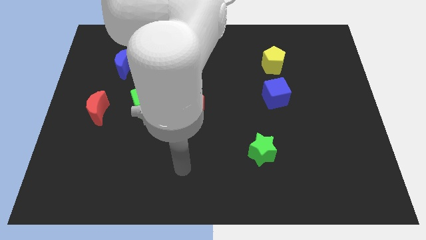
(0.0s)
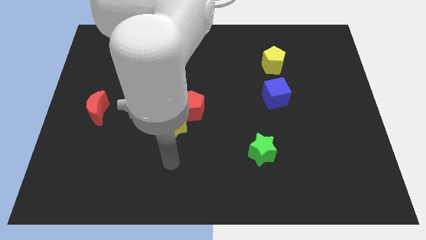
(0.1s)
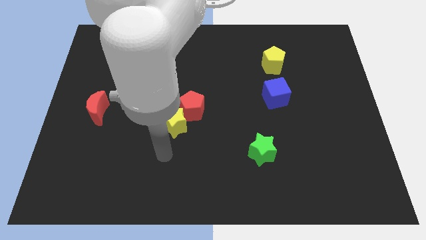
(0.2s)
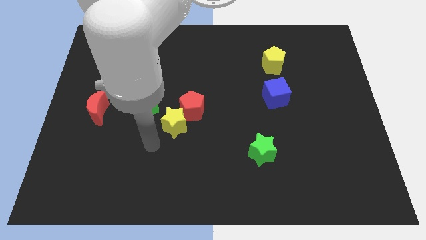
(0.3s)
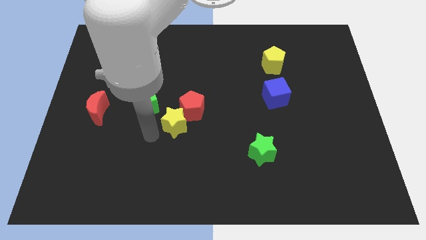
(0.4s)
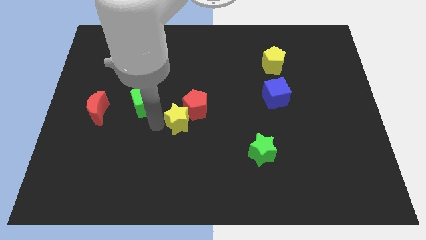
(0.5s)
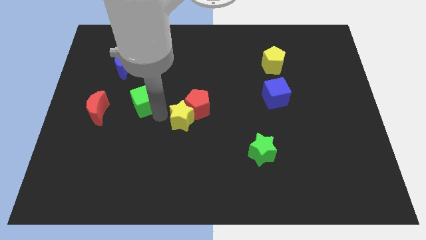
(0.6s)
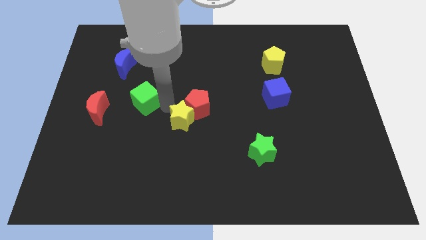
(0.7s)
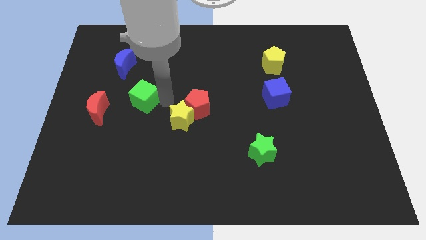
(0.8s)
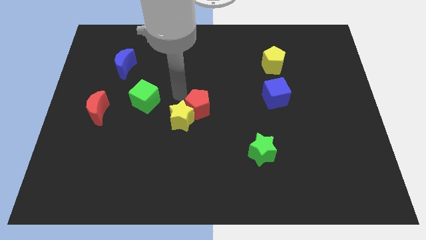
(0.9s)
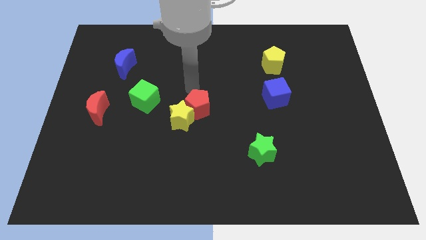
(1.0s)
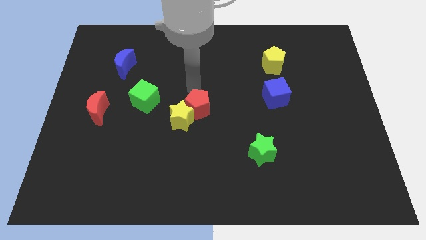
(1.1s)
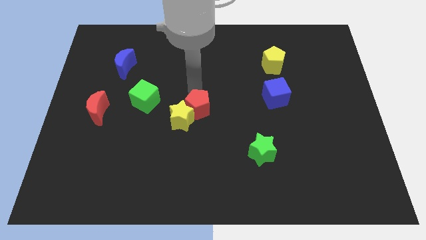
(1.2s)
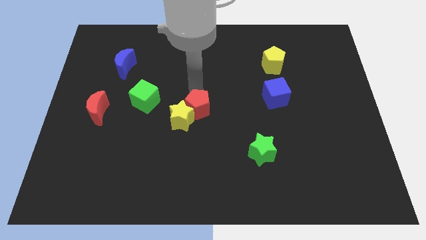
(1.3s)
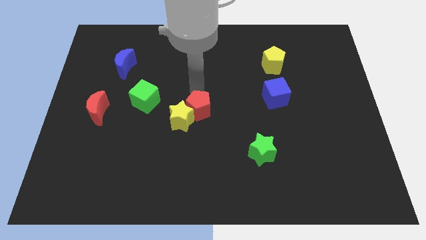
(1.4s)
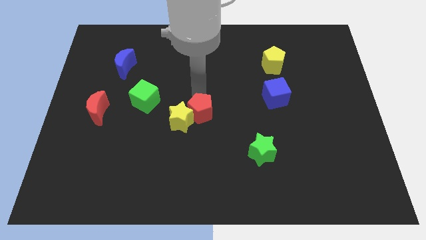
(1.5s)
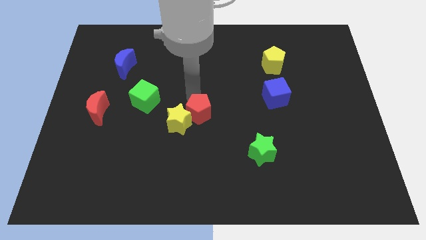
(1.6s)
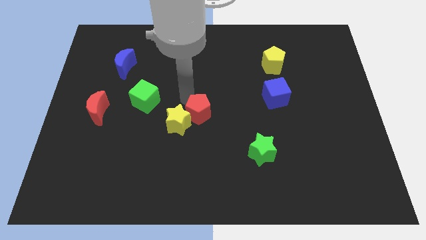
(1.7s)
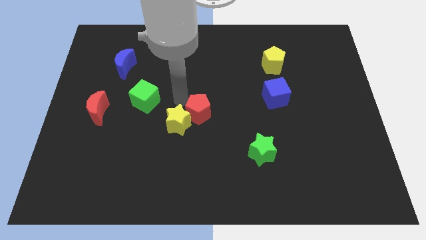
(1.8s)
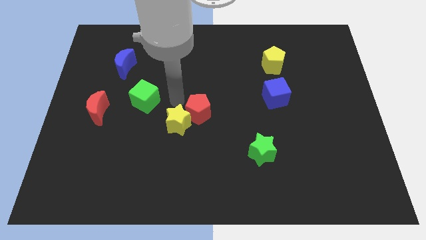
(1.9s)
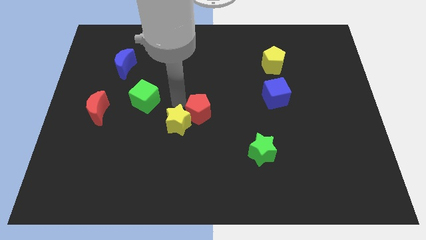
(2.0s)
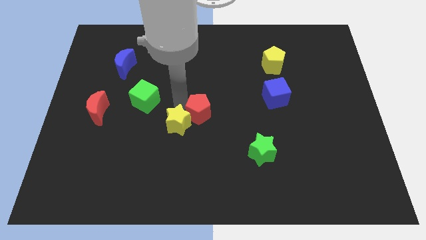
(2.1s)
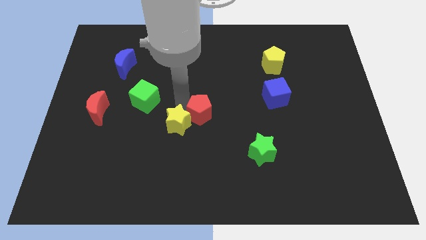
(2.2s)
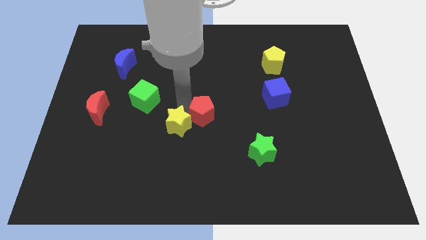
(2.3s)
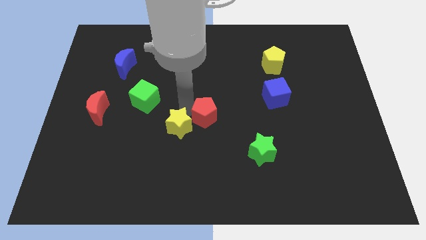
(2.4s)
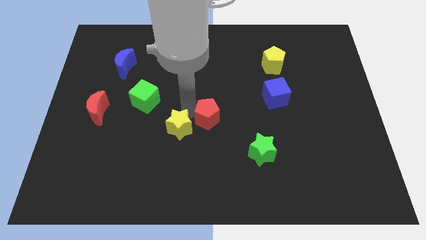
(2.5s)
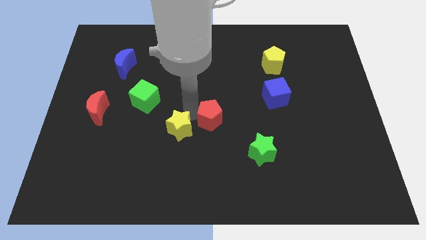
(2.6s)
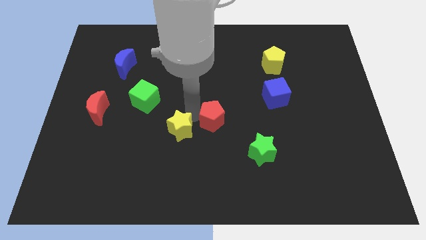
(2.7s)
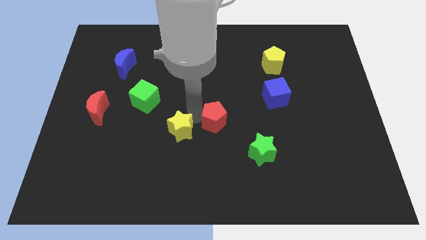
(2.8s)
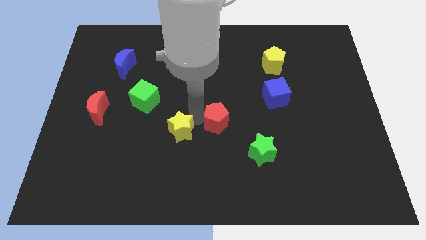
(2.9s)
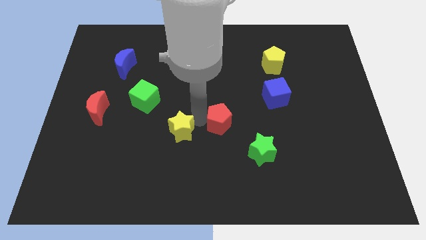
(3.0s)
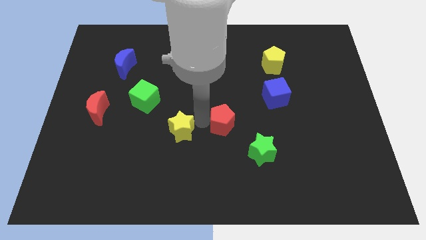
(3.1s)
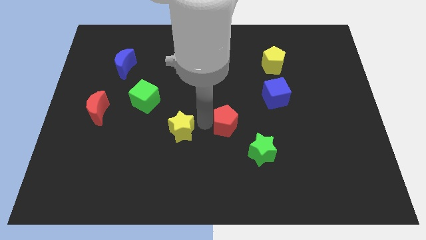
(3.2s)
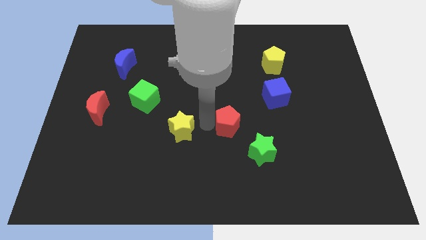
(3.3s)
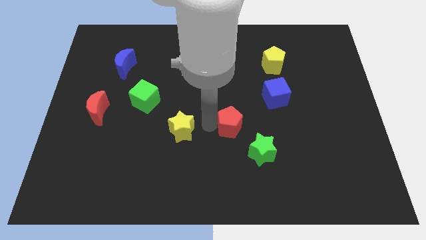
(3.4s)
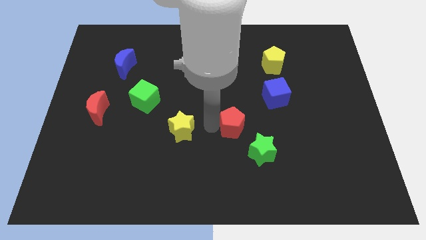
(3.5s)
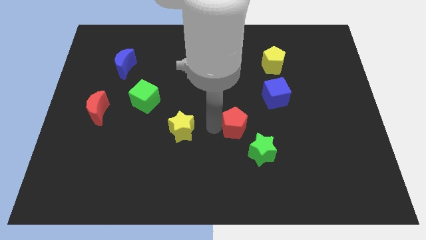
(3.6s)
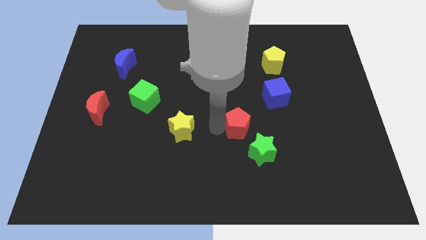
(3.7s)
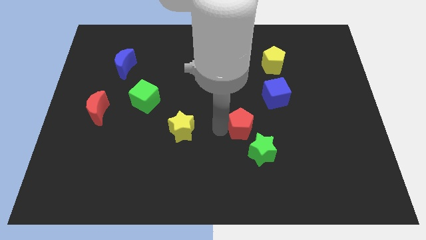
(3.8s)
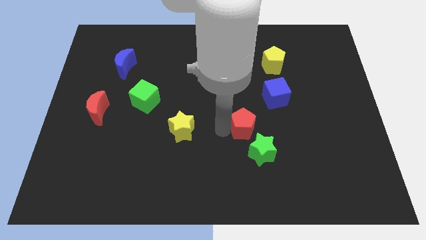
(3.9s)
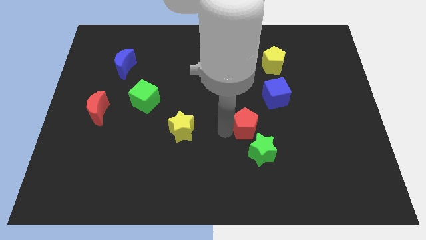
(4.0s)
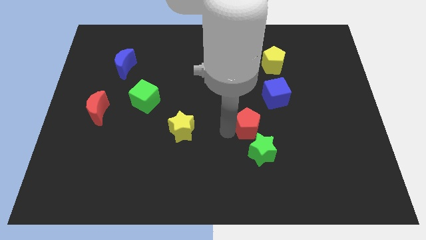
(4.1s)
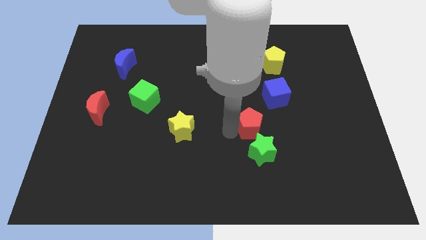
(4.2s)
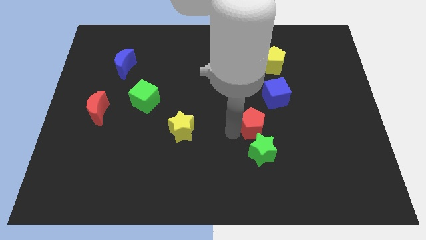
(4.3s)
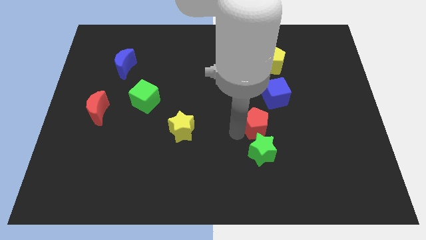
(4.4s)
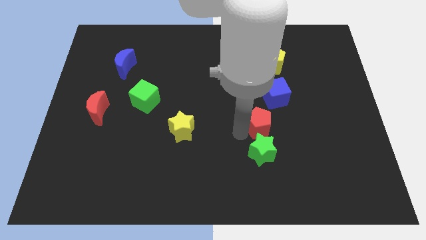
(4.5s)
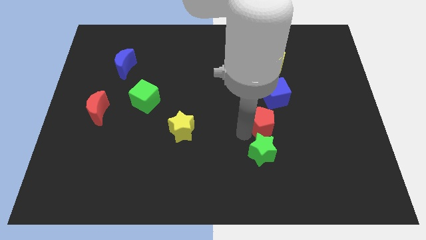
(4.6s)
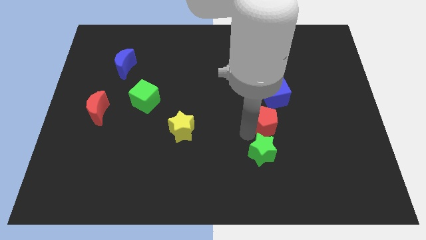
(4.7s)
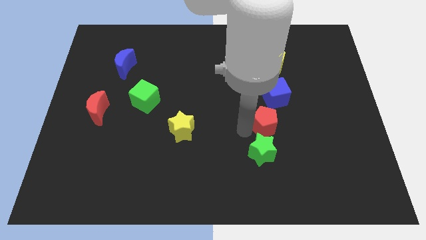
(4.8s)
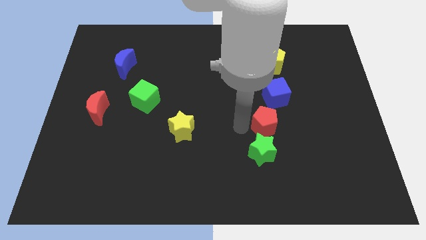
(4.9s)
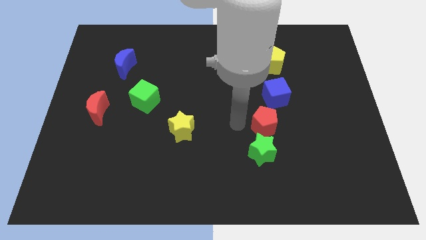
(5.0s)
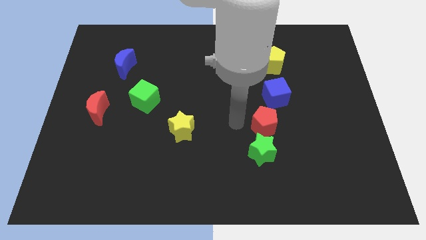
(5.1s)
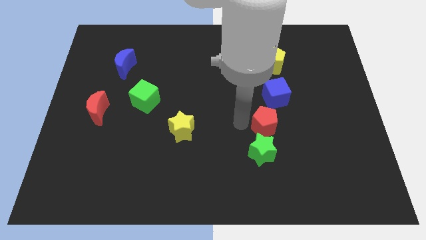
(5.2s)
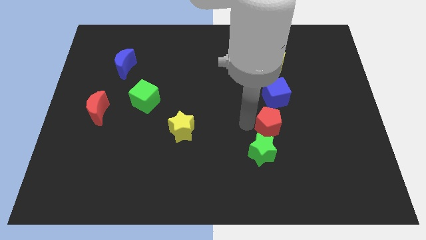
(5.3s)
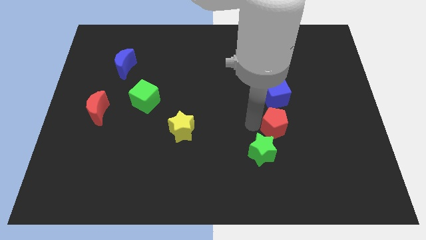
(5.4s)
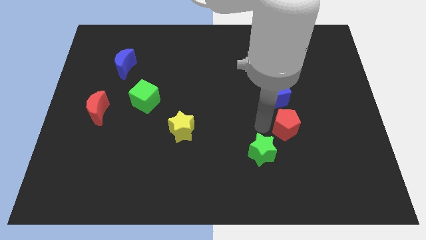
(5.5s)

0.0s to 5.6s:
push the red pentagon right

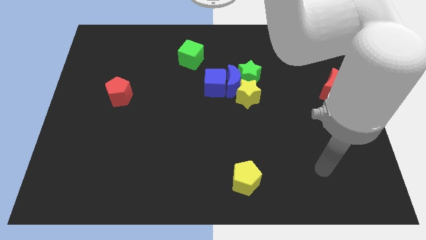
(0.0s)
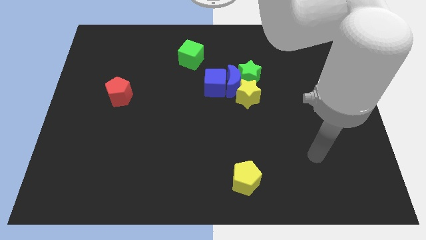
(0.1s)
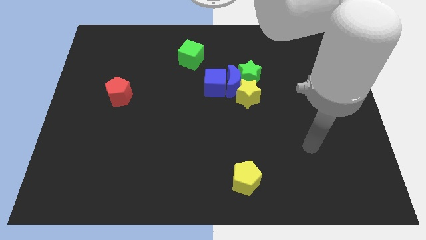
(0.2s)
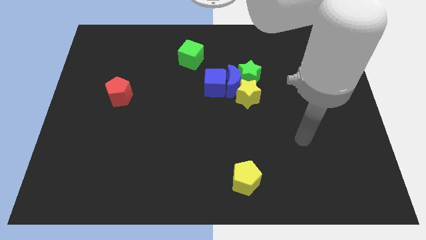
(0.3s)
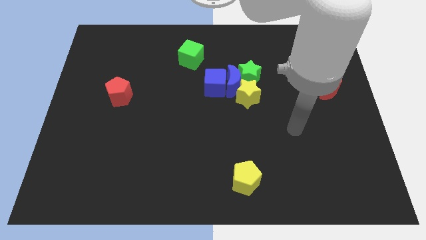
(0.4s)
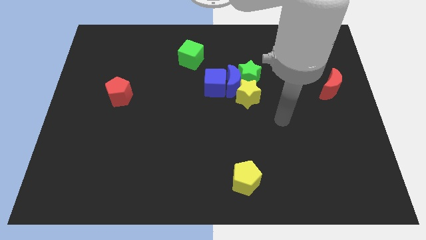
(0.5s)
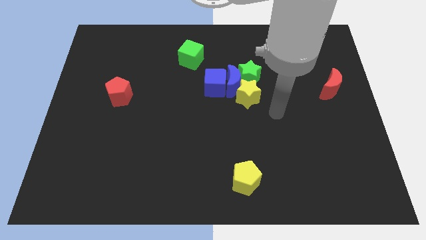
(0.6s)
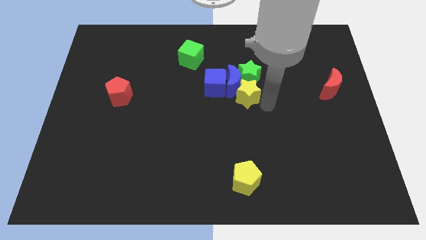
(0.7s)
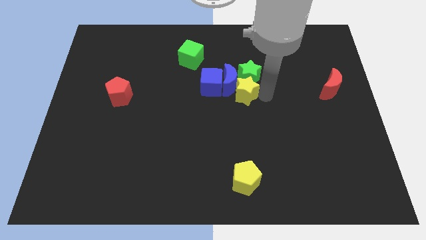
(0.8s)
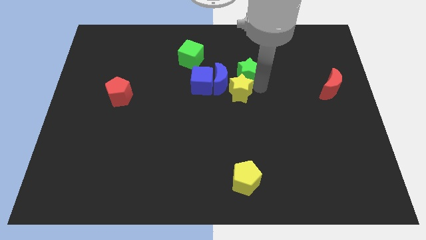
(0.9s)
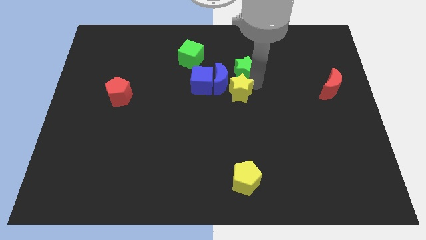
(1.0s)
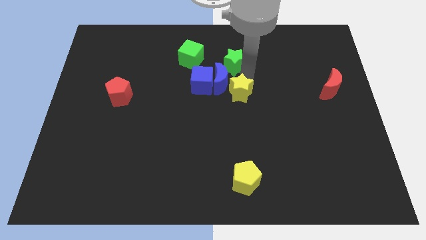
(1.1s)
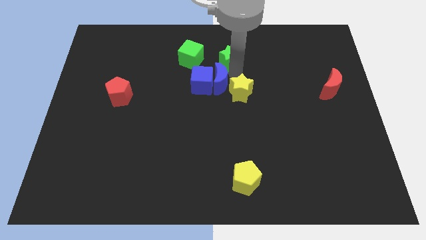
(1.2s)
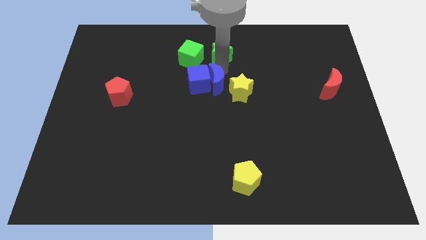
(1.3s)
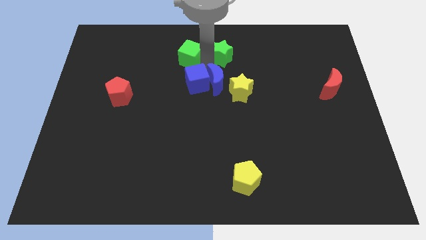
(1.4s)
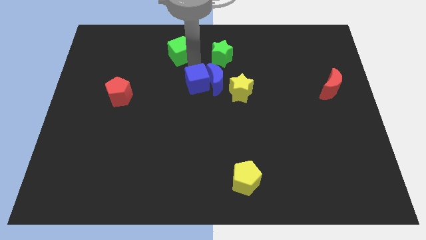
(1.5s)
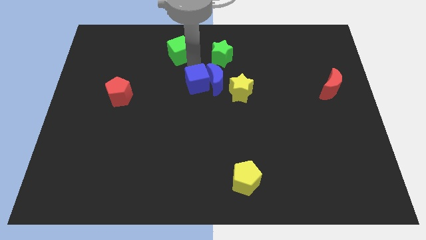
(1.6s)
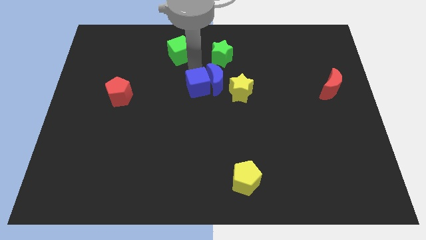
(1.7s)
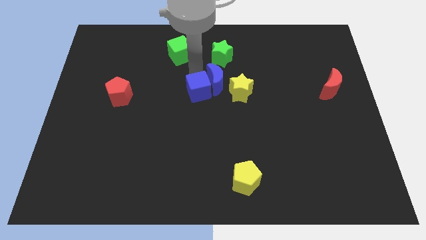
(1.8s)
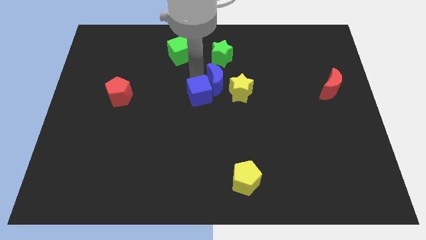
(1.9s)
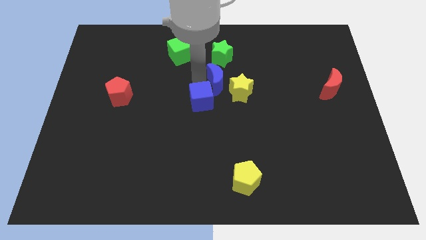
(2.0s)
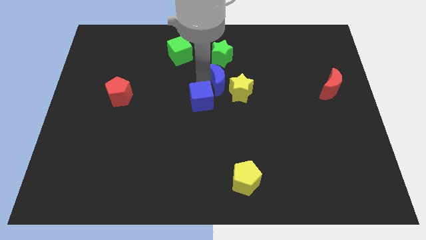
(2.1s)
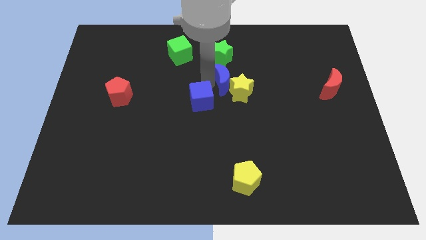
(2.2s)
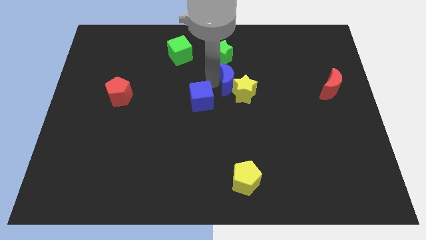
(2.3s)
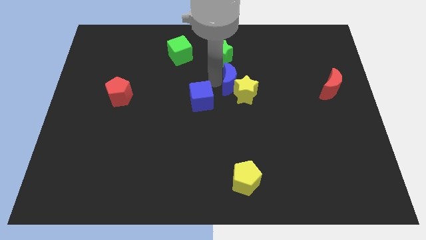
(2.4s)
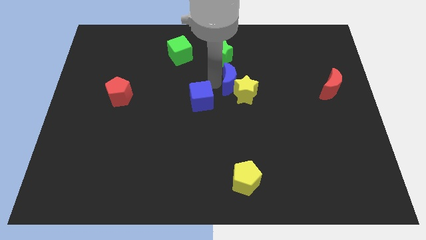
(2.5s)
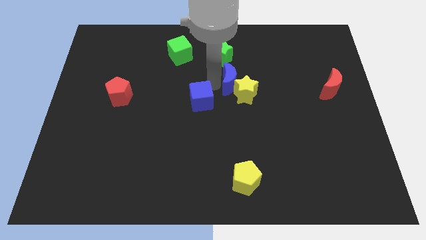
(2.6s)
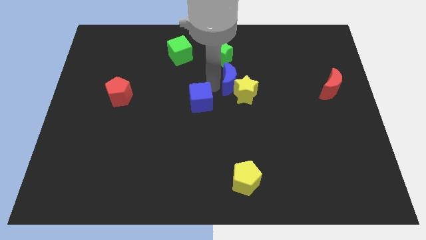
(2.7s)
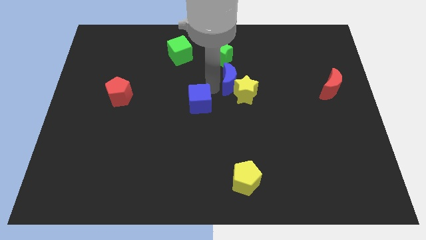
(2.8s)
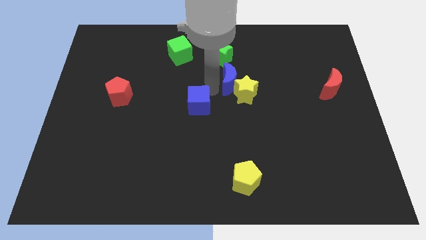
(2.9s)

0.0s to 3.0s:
slide the blue cube diagonally downwards and left somewhat

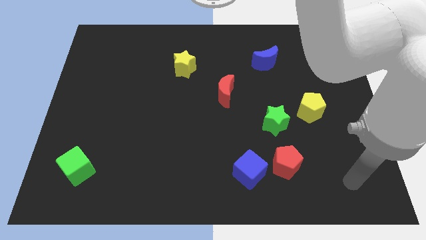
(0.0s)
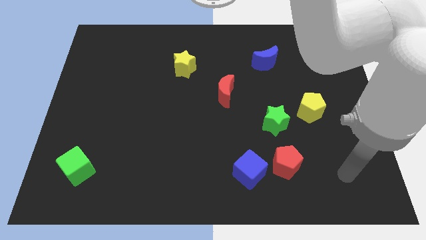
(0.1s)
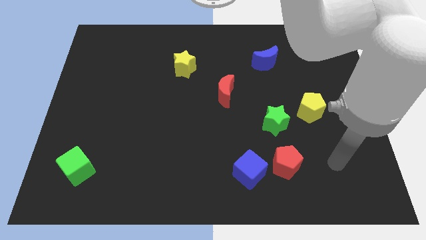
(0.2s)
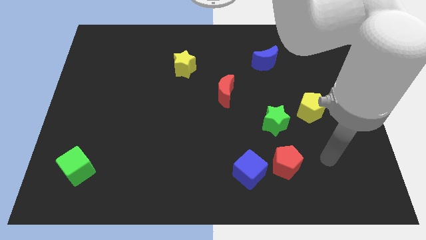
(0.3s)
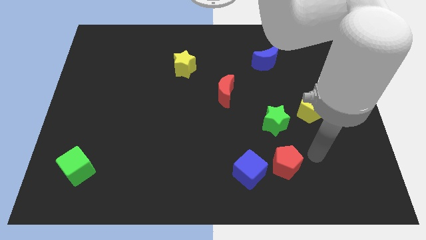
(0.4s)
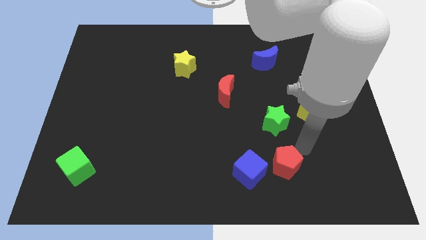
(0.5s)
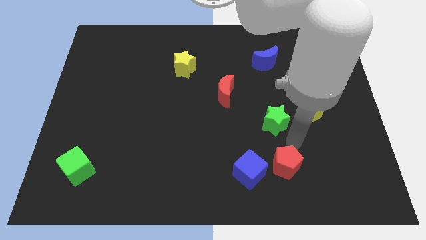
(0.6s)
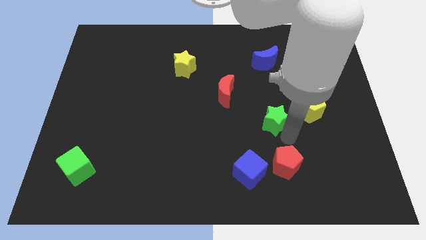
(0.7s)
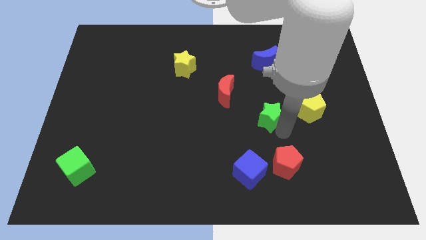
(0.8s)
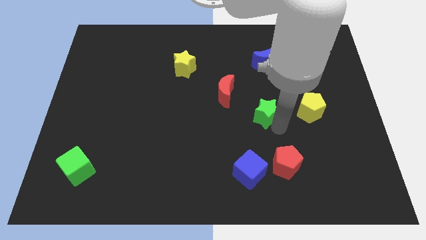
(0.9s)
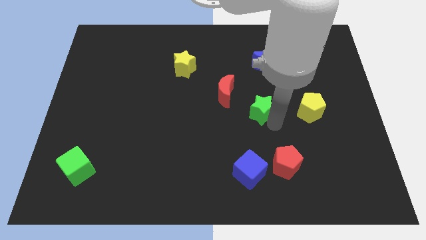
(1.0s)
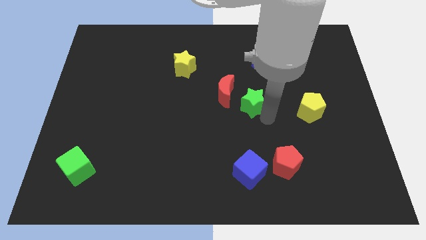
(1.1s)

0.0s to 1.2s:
push the green star diagonally up and to the left a bit
